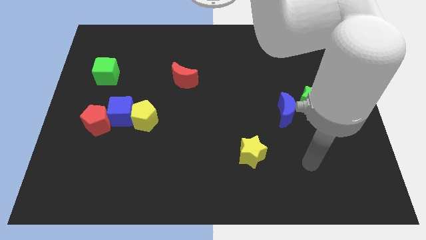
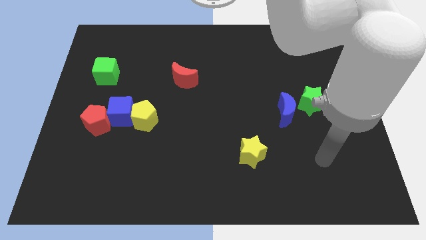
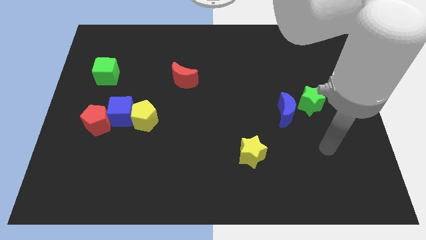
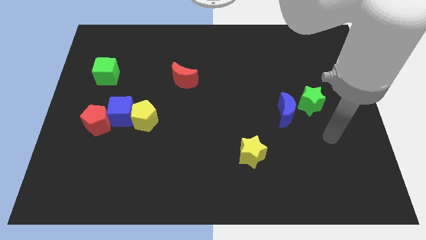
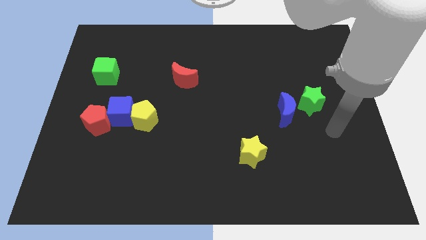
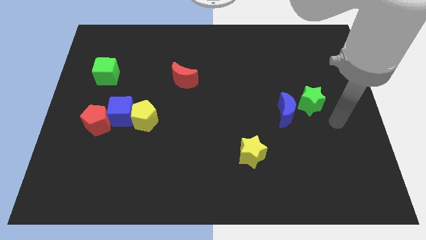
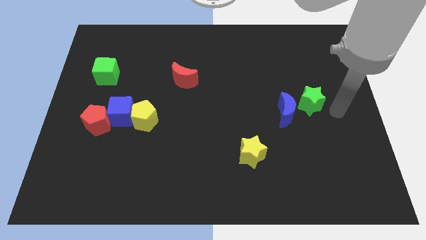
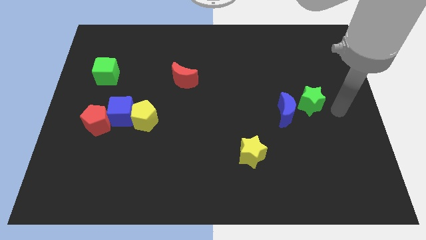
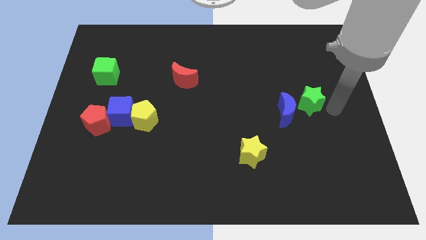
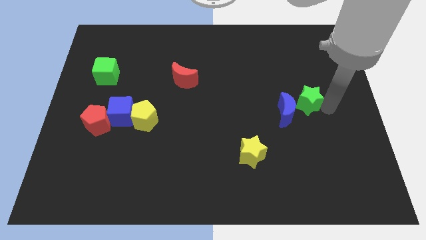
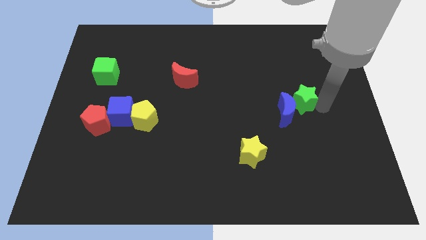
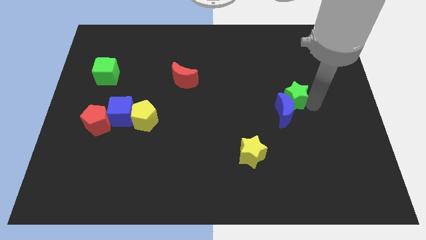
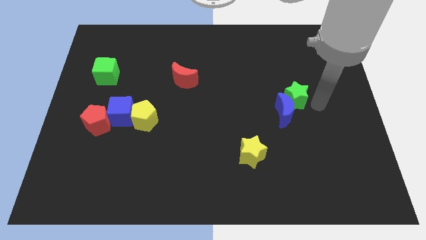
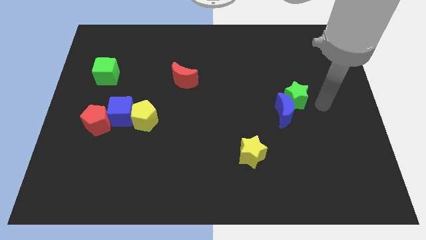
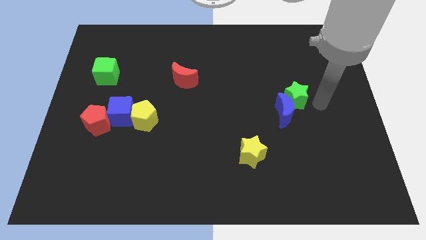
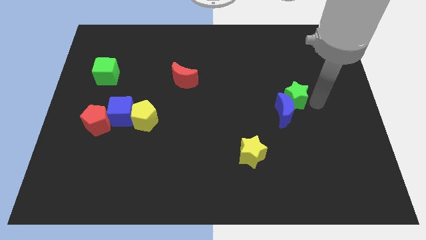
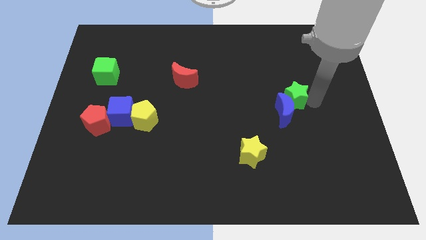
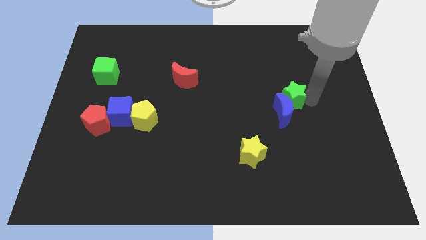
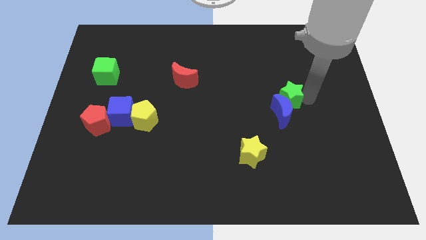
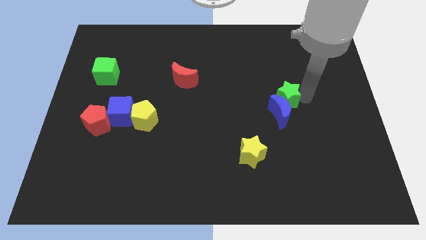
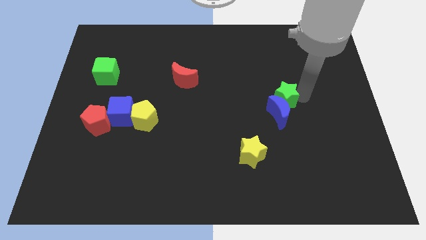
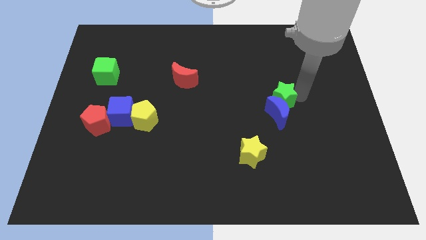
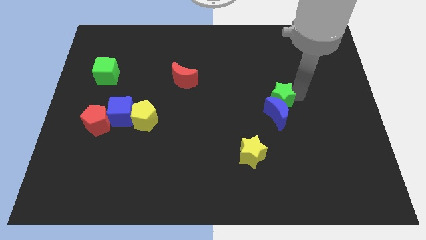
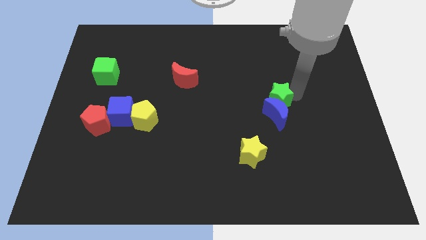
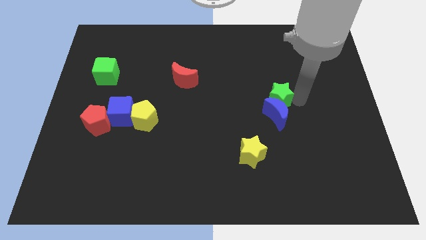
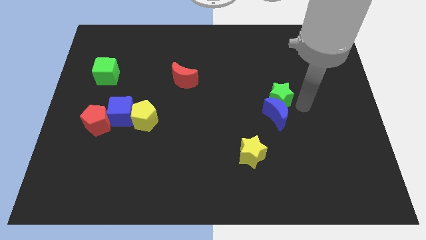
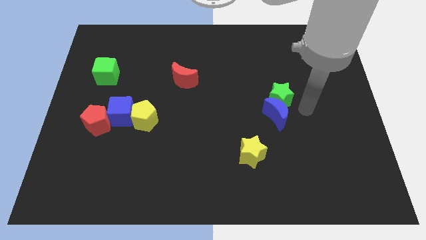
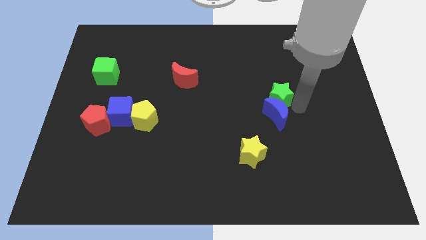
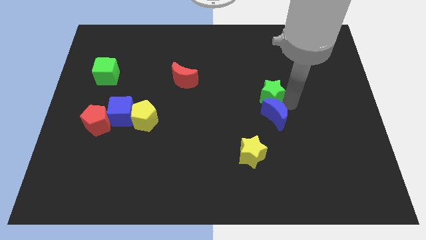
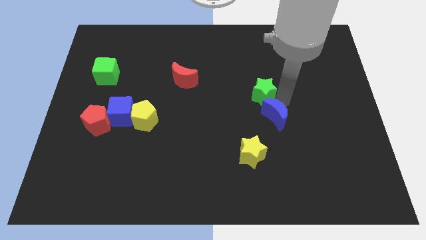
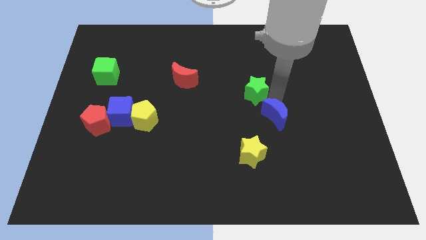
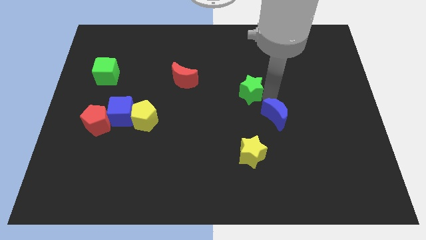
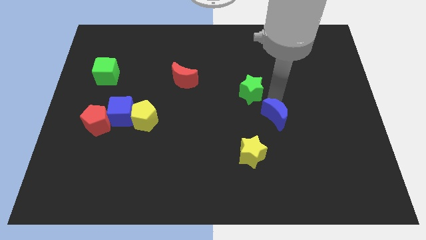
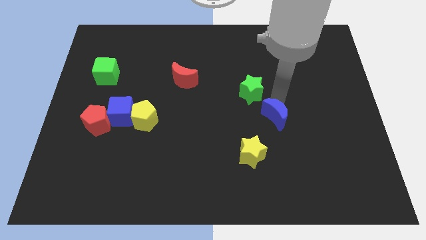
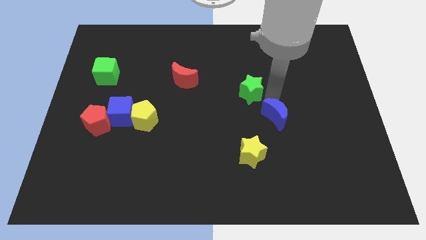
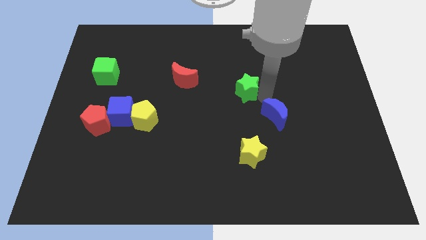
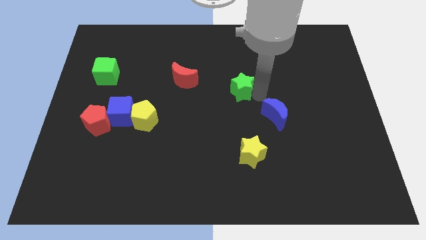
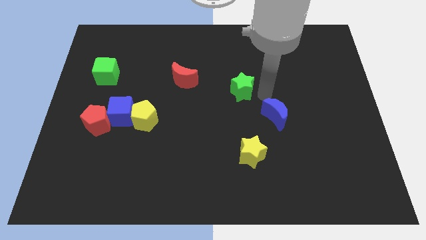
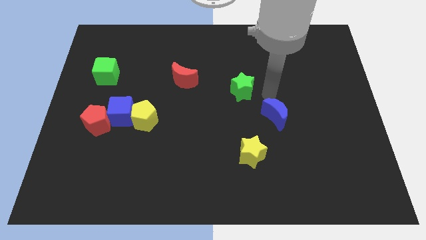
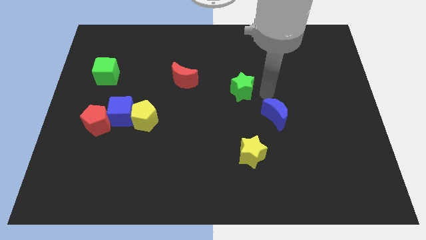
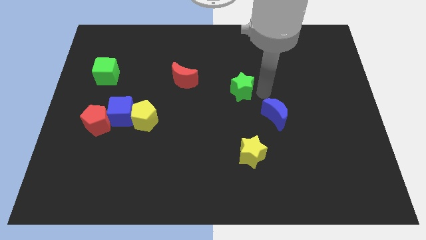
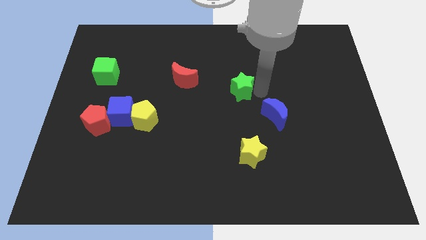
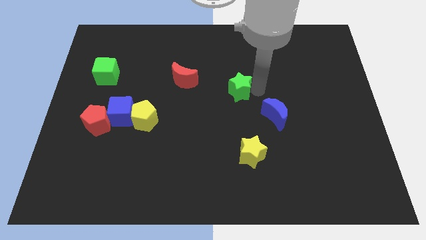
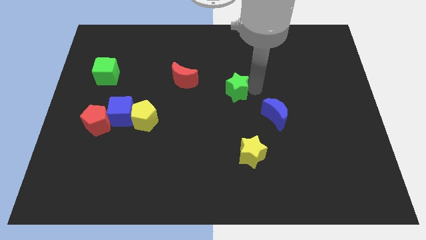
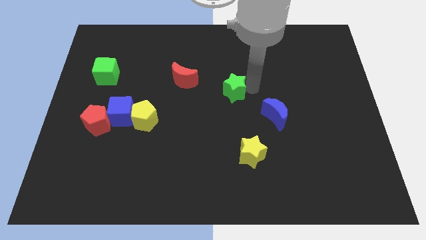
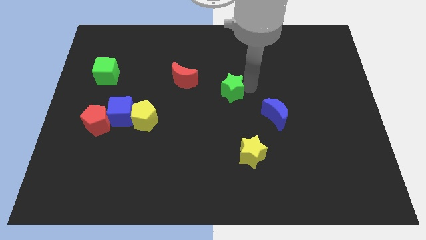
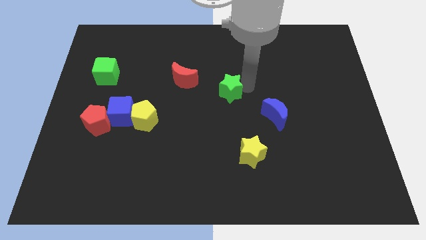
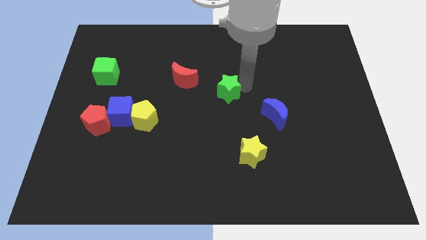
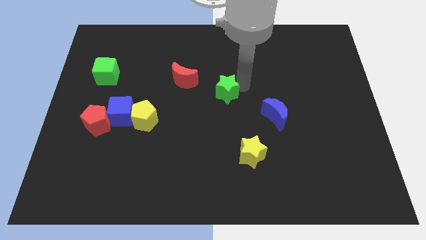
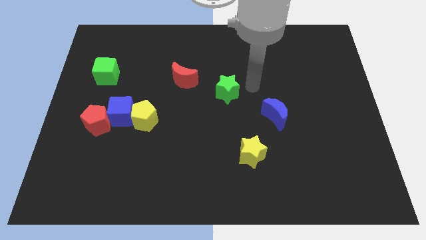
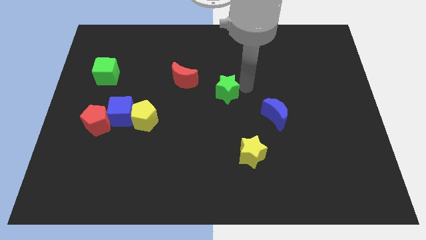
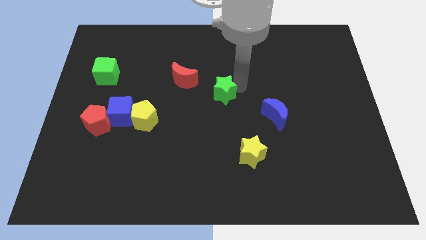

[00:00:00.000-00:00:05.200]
slide the green star to the left

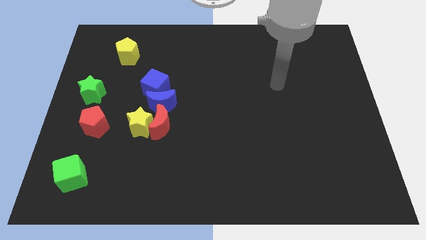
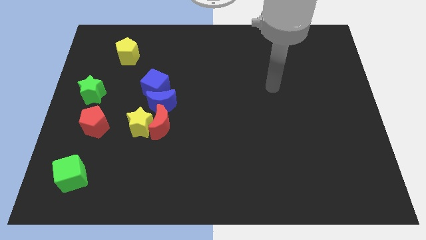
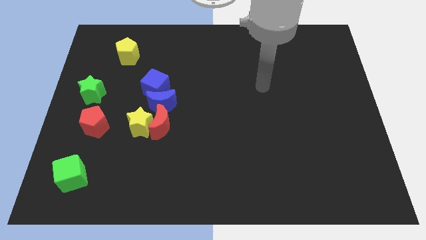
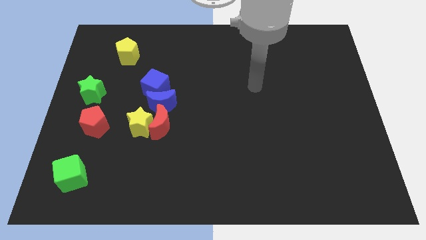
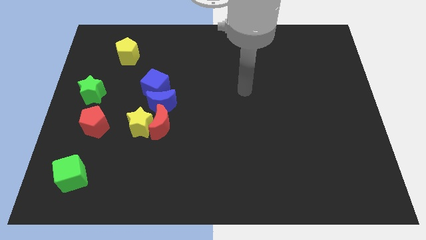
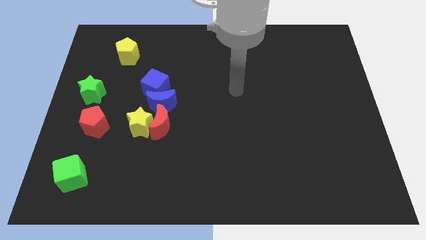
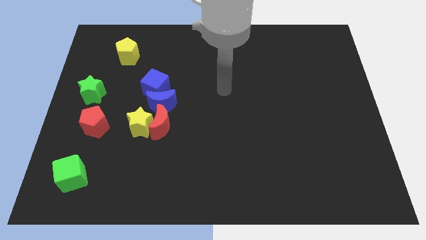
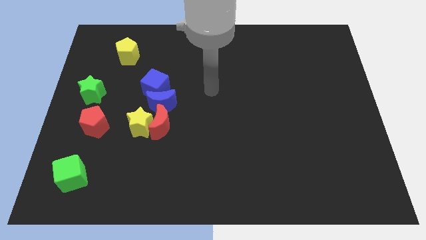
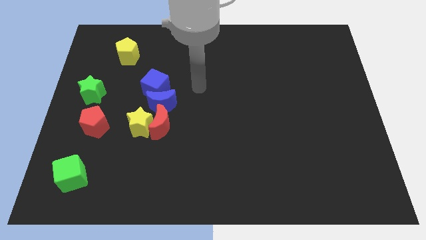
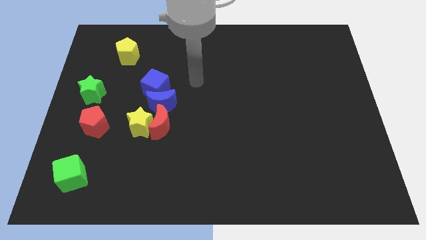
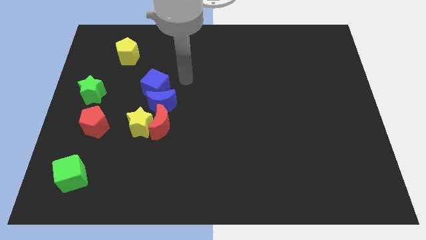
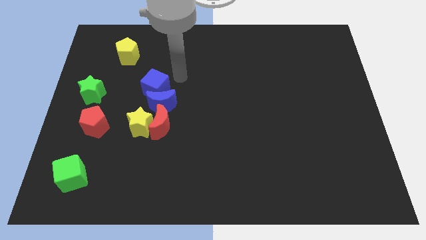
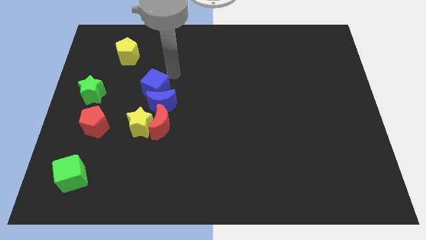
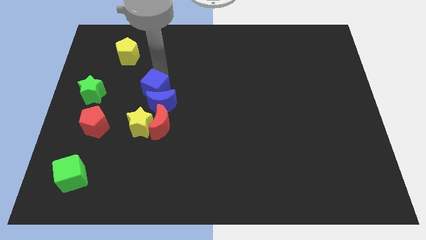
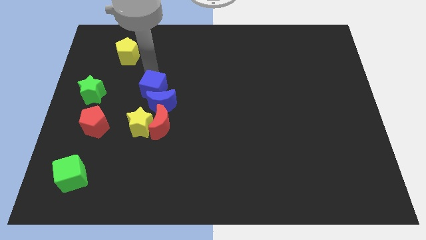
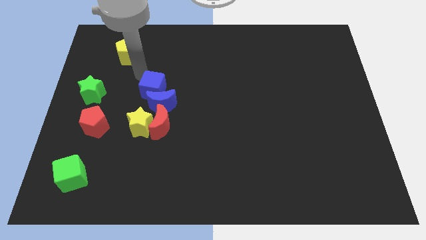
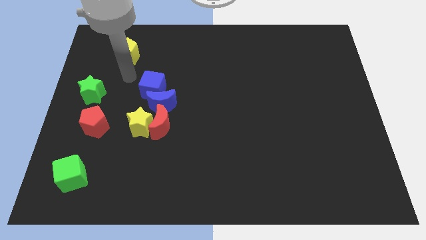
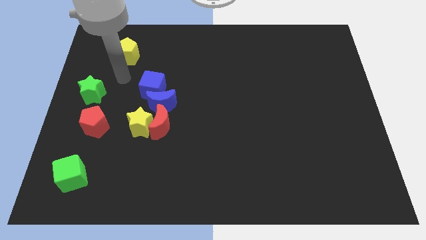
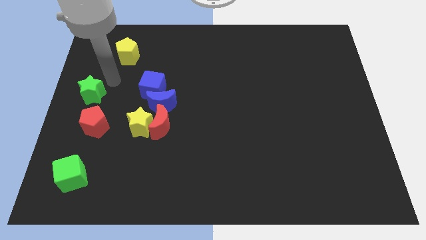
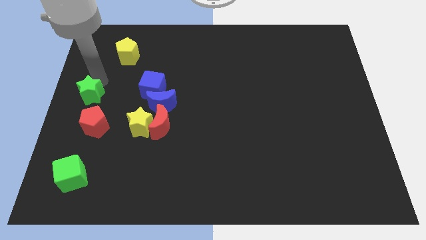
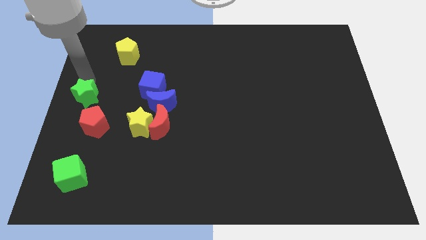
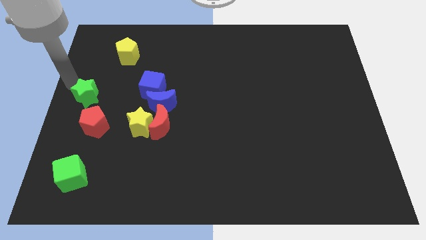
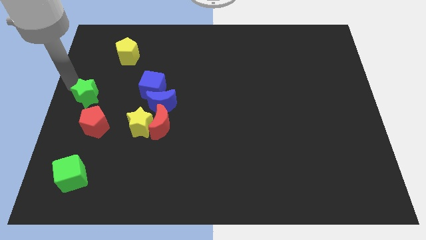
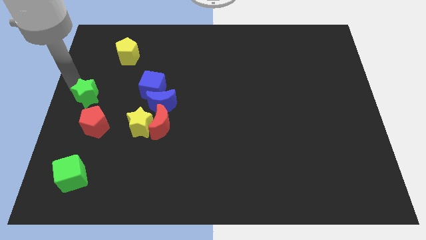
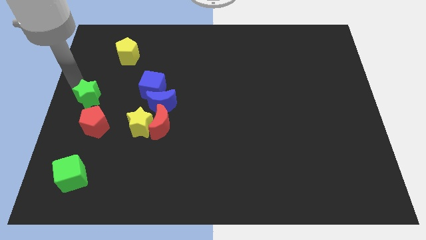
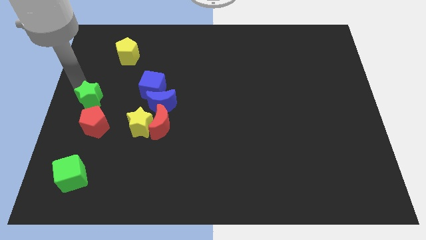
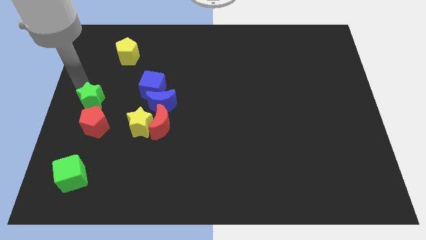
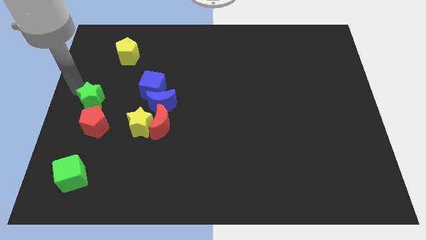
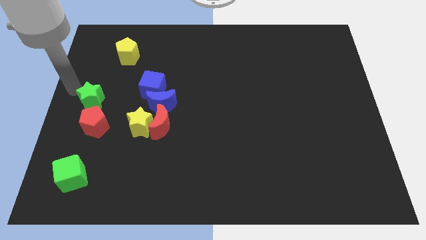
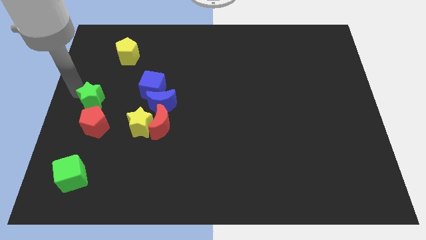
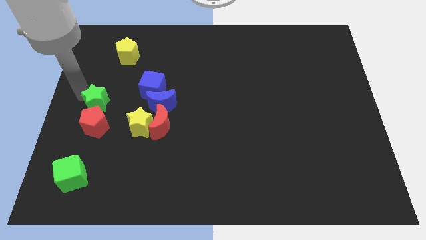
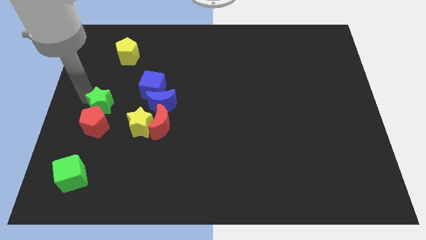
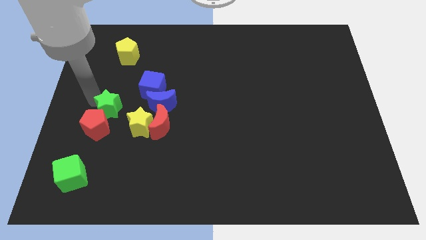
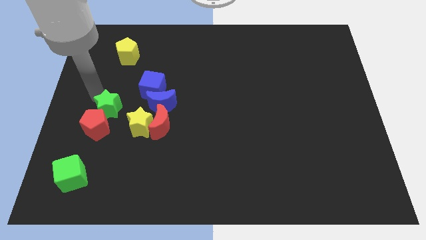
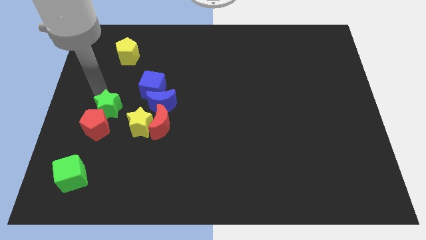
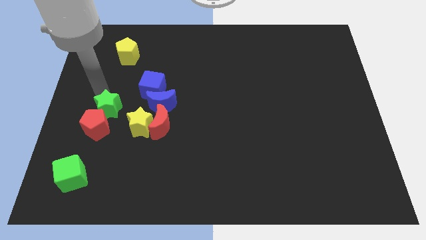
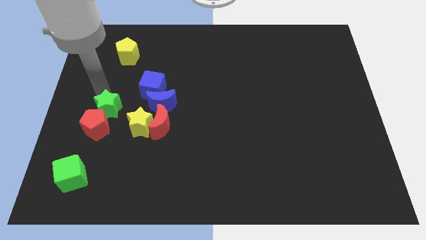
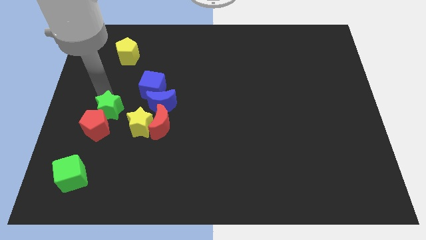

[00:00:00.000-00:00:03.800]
push the green star a little downwards and then to the right
